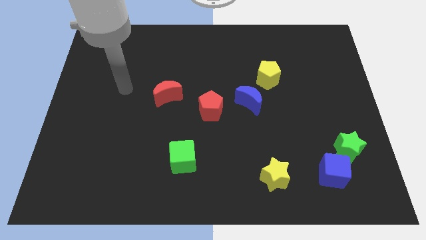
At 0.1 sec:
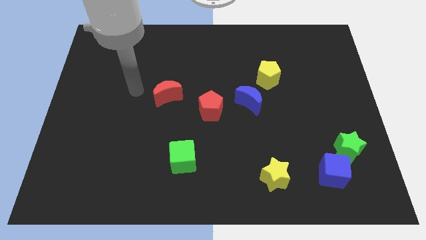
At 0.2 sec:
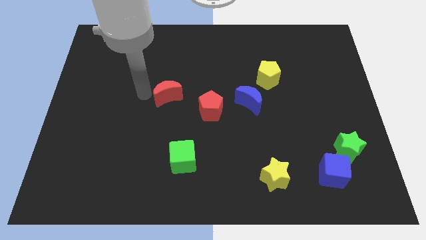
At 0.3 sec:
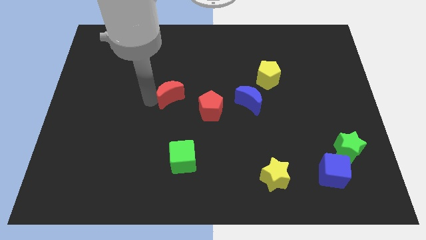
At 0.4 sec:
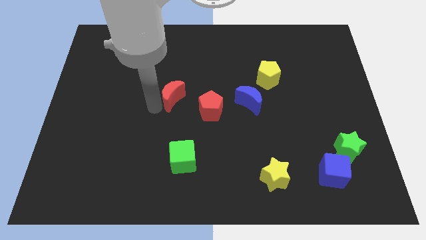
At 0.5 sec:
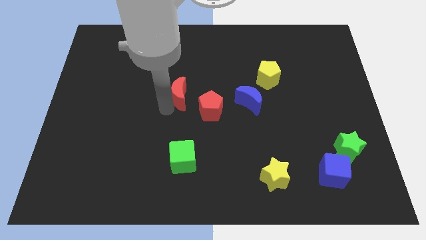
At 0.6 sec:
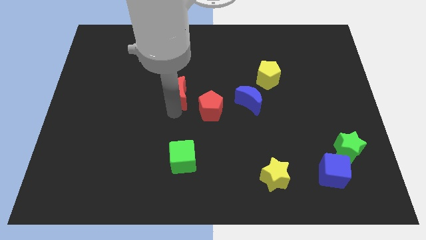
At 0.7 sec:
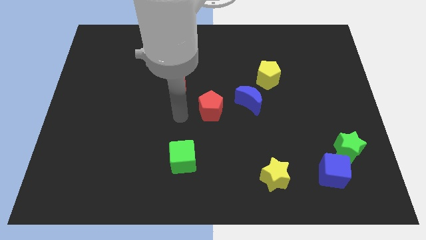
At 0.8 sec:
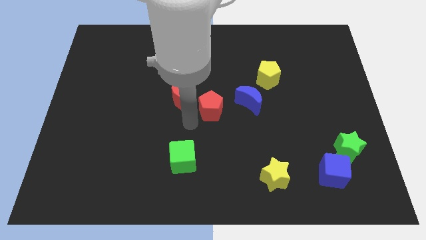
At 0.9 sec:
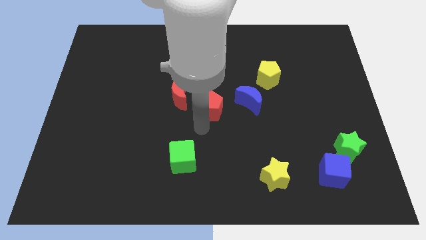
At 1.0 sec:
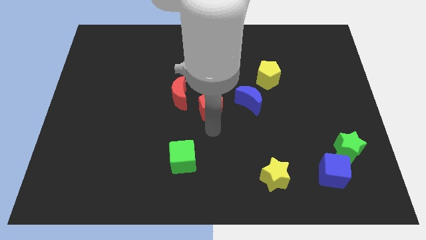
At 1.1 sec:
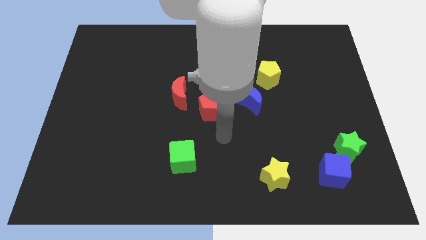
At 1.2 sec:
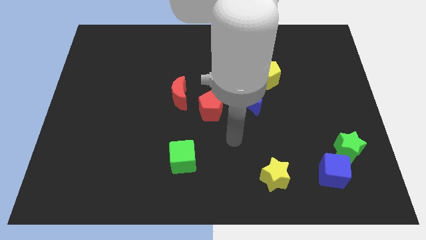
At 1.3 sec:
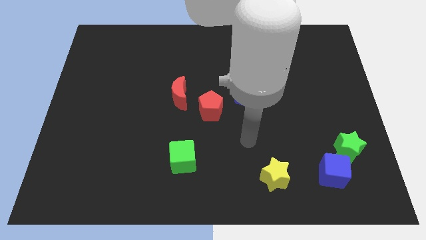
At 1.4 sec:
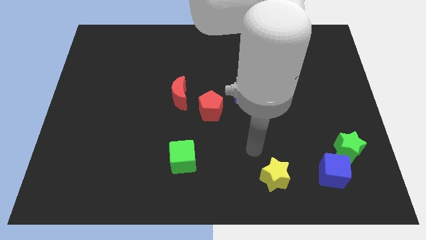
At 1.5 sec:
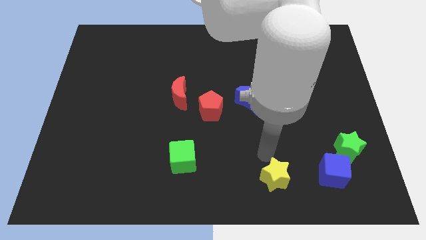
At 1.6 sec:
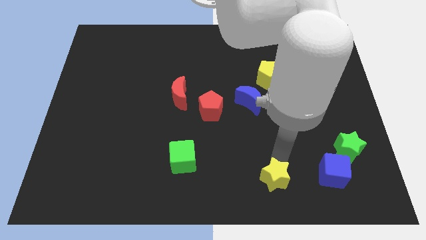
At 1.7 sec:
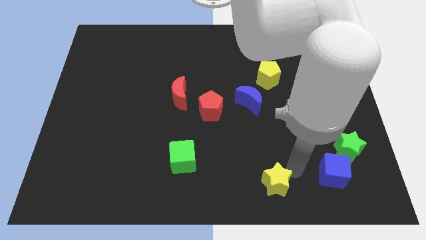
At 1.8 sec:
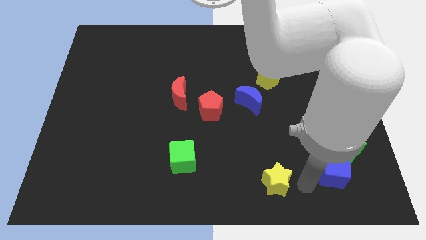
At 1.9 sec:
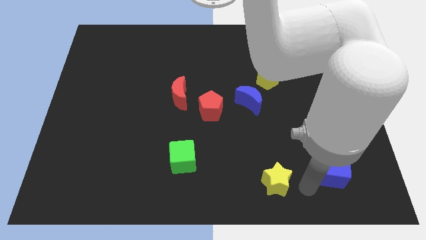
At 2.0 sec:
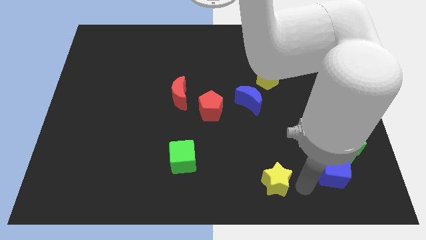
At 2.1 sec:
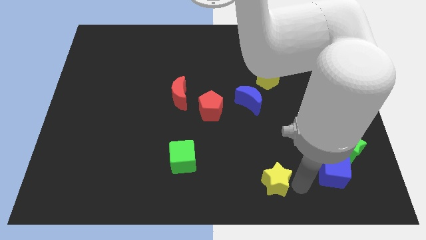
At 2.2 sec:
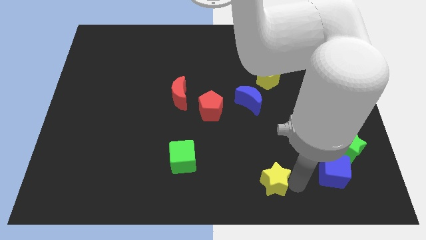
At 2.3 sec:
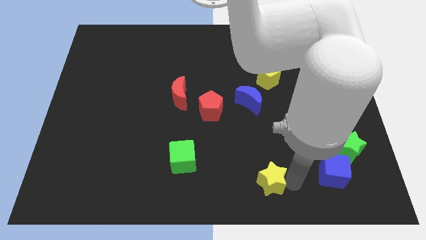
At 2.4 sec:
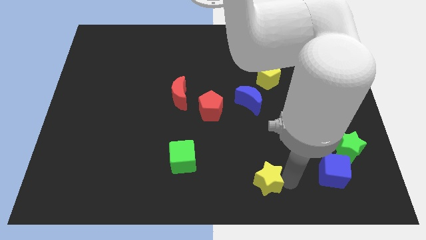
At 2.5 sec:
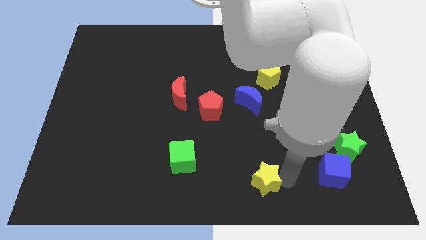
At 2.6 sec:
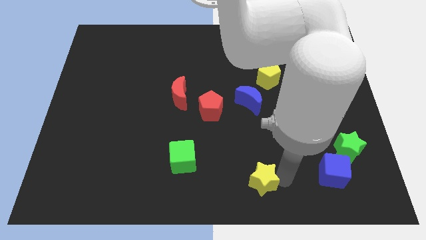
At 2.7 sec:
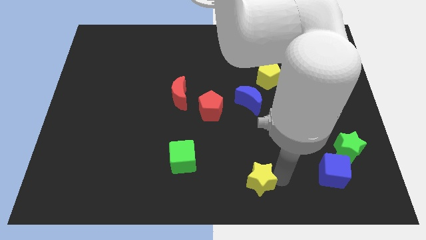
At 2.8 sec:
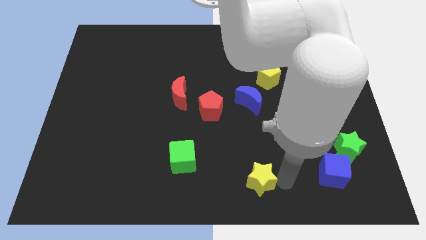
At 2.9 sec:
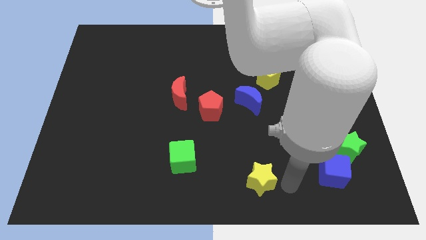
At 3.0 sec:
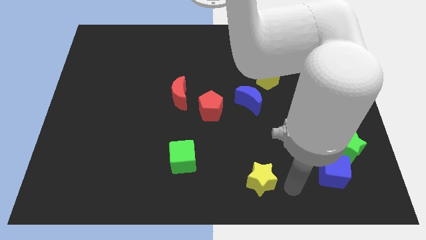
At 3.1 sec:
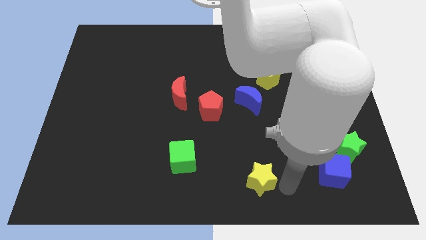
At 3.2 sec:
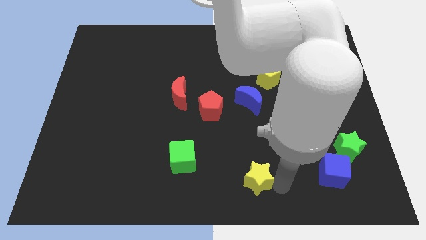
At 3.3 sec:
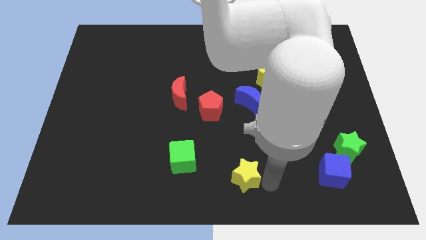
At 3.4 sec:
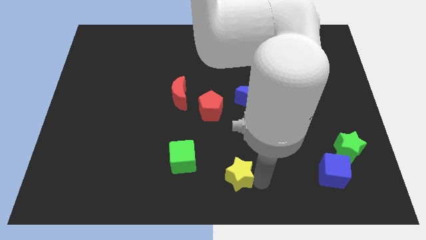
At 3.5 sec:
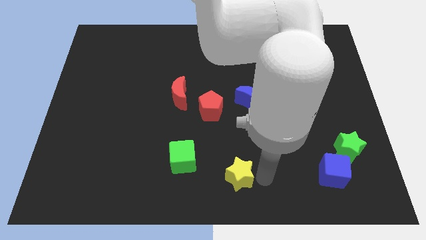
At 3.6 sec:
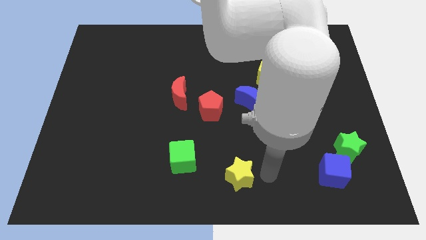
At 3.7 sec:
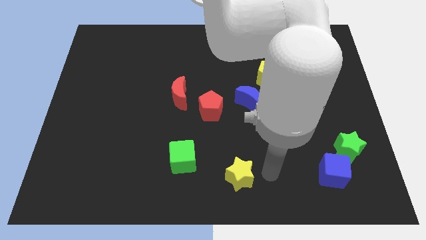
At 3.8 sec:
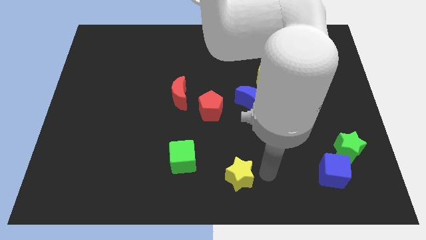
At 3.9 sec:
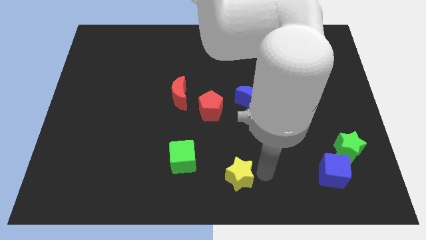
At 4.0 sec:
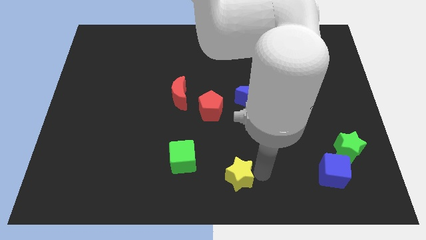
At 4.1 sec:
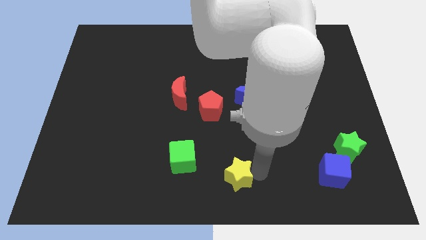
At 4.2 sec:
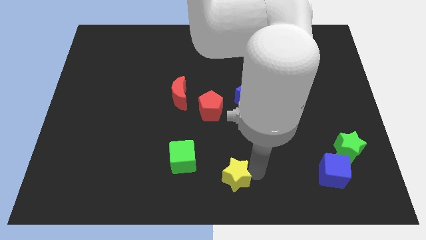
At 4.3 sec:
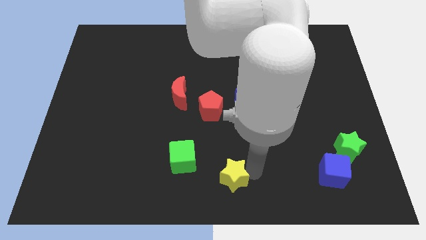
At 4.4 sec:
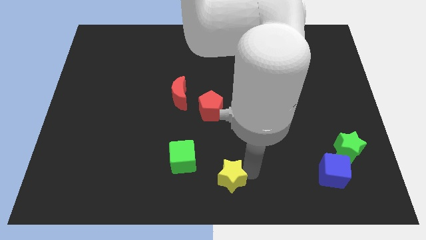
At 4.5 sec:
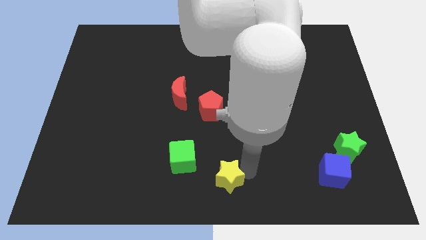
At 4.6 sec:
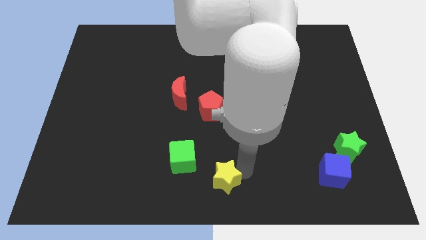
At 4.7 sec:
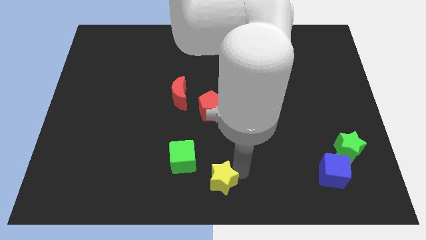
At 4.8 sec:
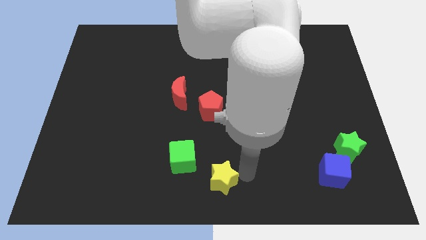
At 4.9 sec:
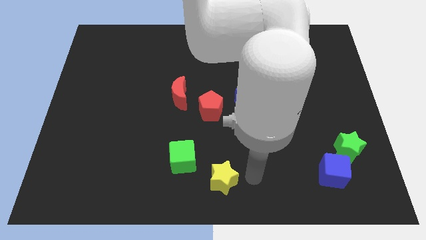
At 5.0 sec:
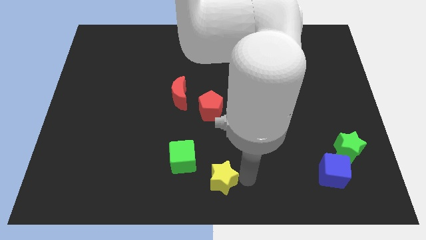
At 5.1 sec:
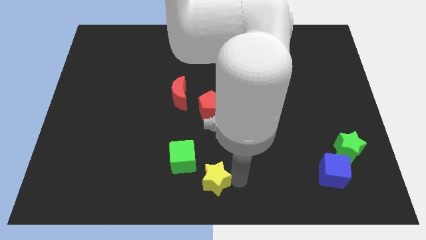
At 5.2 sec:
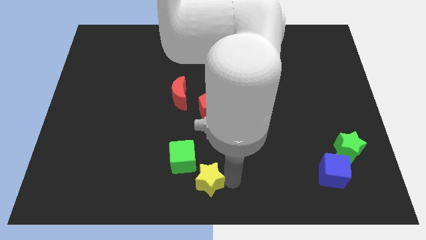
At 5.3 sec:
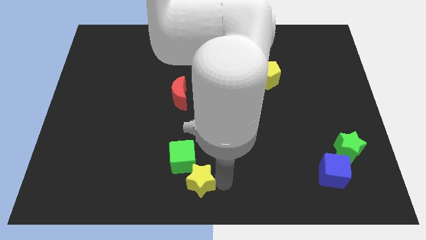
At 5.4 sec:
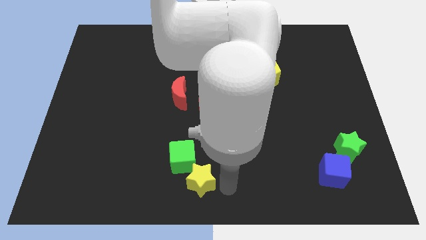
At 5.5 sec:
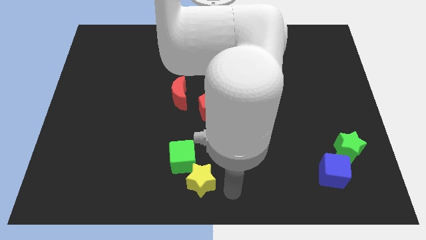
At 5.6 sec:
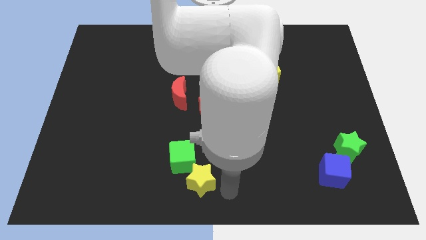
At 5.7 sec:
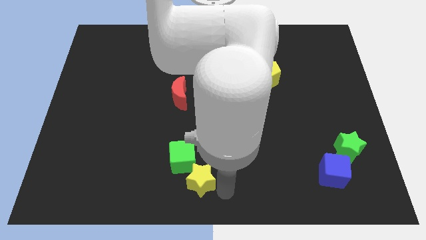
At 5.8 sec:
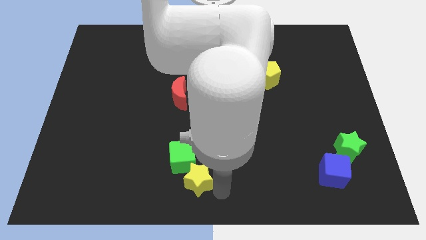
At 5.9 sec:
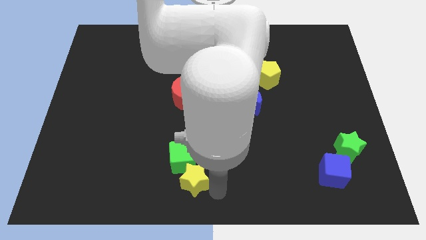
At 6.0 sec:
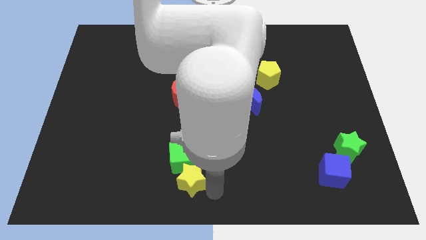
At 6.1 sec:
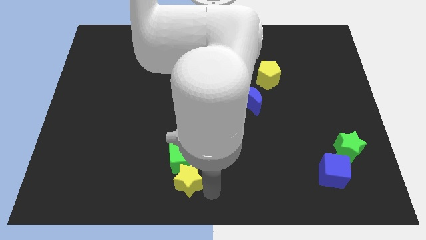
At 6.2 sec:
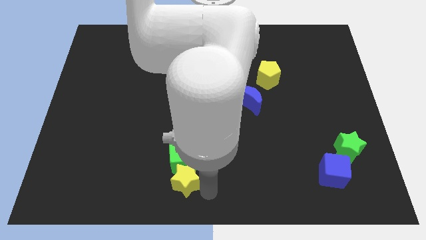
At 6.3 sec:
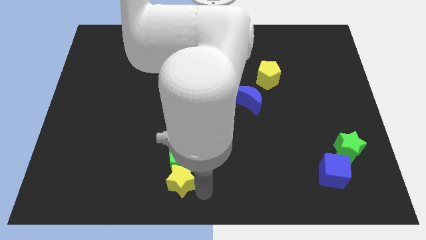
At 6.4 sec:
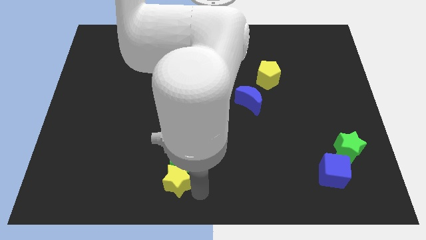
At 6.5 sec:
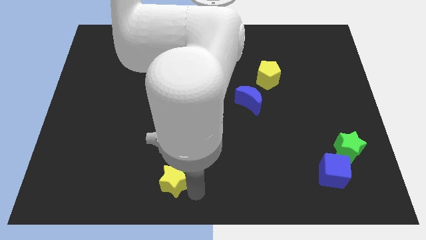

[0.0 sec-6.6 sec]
slide the yellow star left

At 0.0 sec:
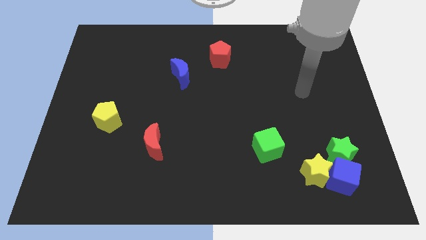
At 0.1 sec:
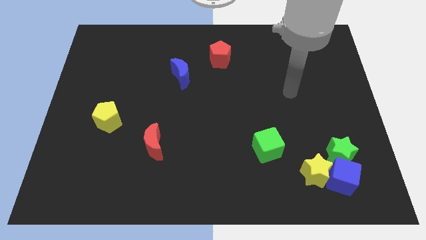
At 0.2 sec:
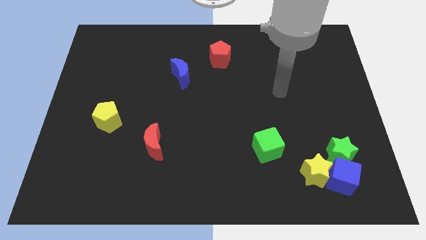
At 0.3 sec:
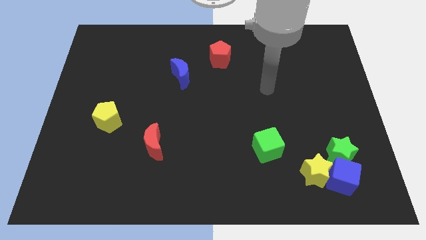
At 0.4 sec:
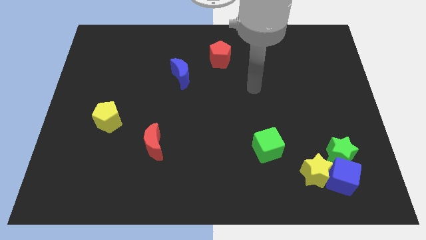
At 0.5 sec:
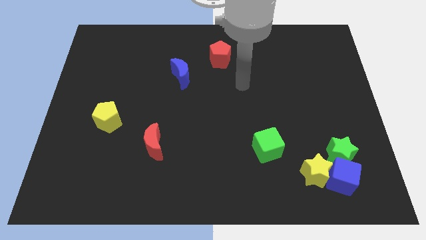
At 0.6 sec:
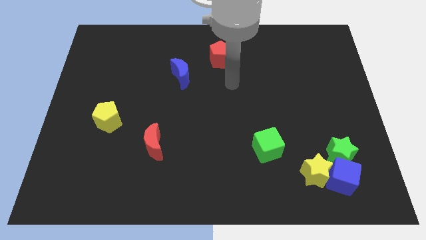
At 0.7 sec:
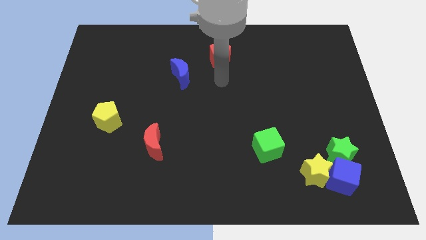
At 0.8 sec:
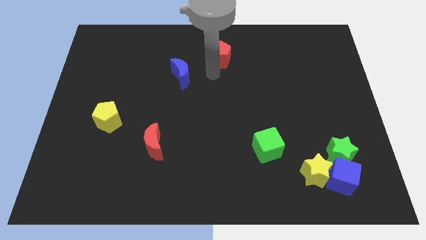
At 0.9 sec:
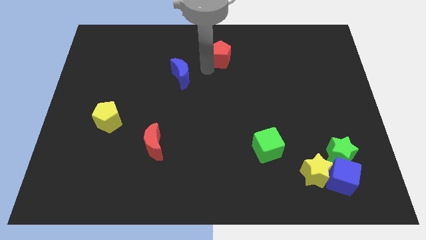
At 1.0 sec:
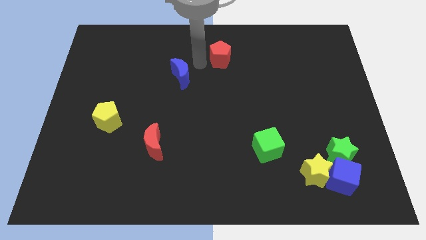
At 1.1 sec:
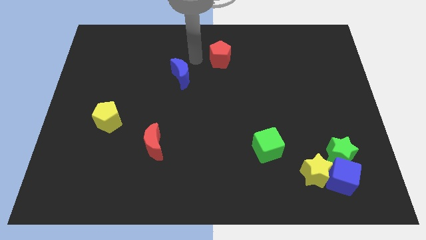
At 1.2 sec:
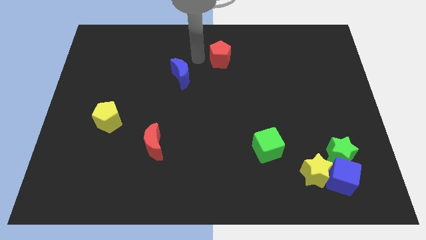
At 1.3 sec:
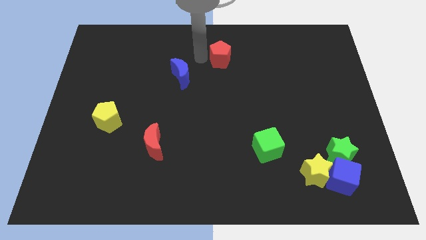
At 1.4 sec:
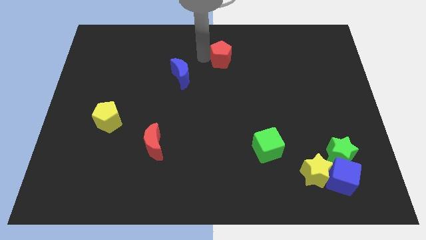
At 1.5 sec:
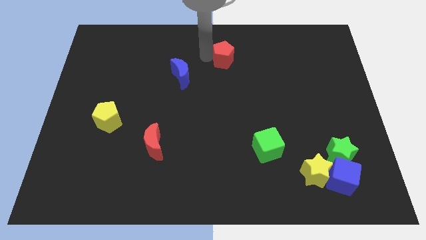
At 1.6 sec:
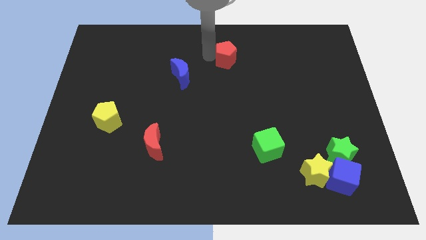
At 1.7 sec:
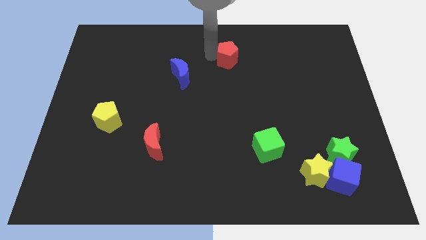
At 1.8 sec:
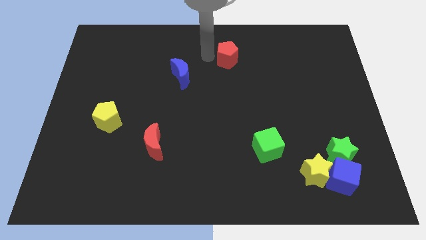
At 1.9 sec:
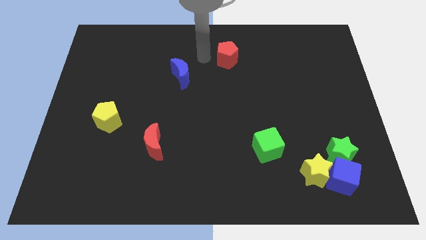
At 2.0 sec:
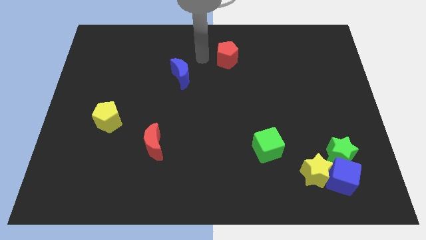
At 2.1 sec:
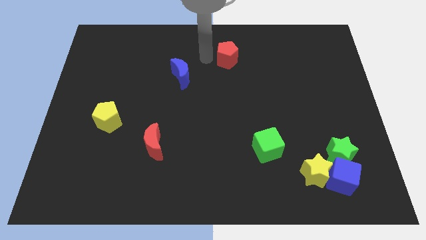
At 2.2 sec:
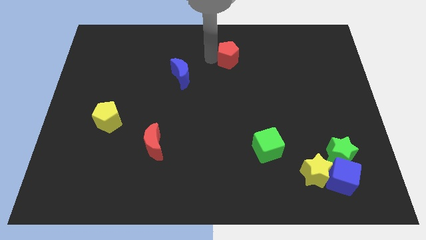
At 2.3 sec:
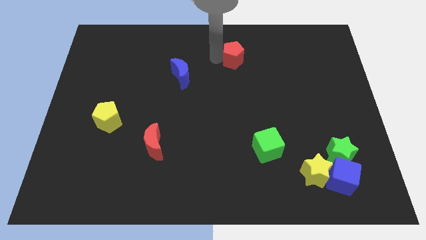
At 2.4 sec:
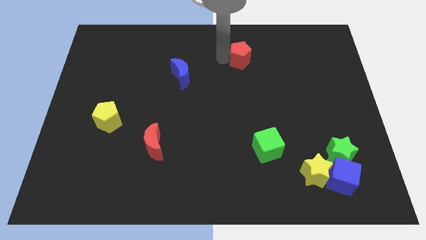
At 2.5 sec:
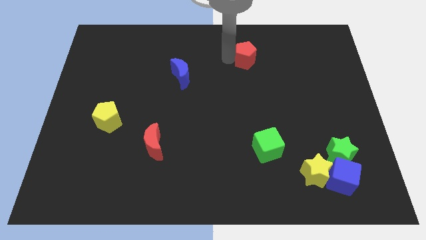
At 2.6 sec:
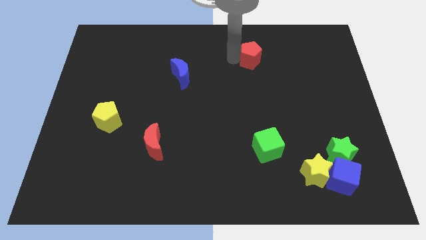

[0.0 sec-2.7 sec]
slightly slide the red pentagon right
